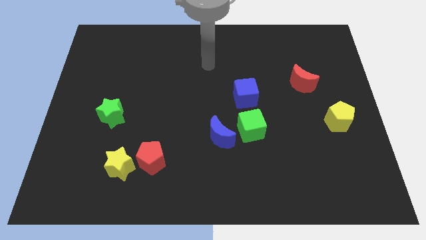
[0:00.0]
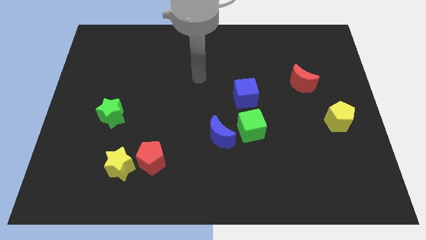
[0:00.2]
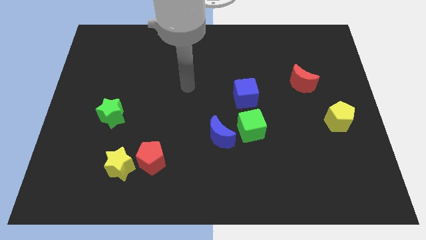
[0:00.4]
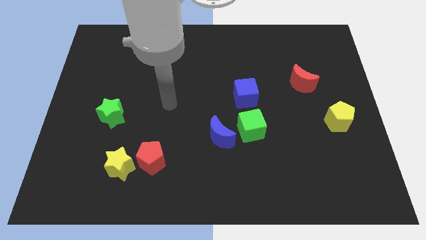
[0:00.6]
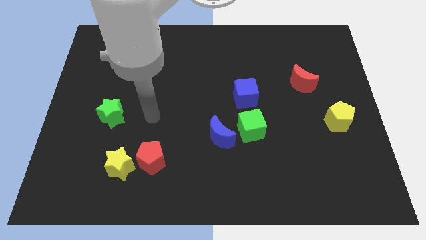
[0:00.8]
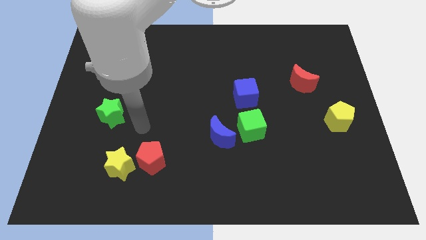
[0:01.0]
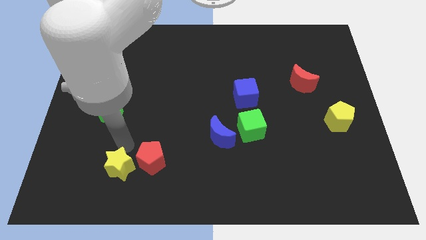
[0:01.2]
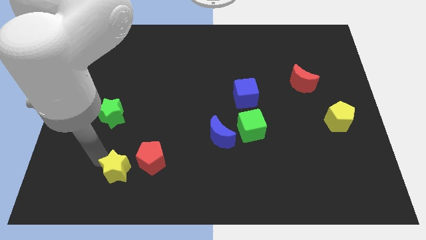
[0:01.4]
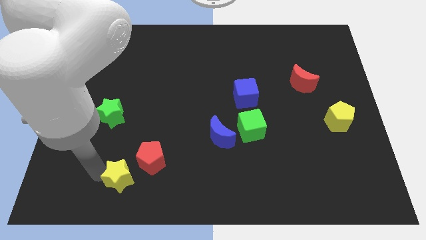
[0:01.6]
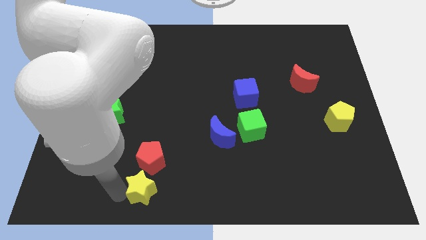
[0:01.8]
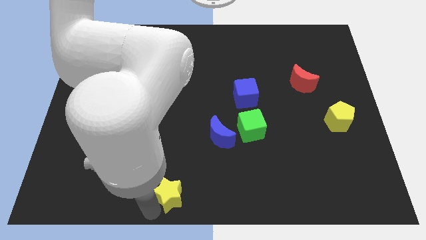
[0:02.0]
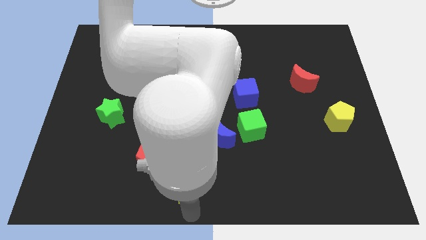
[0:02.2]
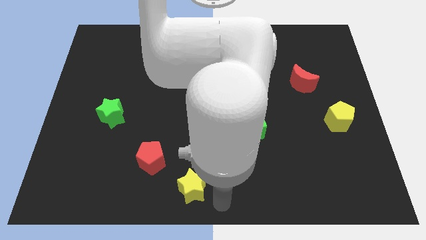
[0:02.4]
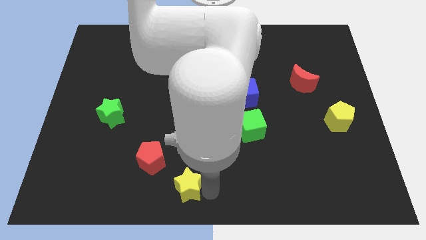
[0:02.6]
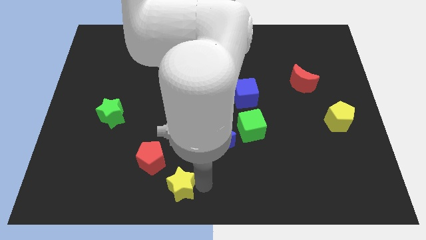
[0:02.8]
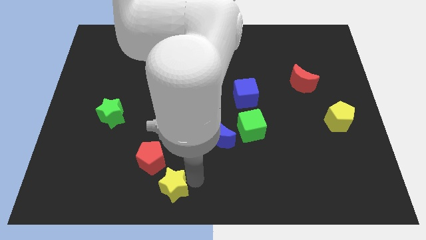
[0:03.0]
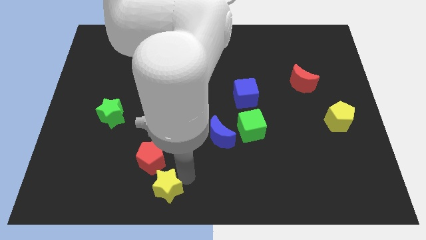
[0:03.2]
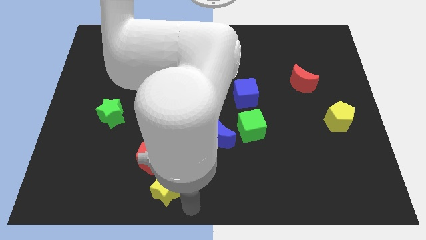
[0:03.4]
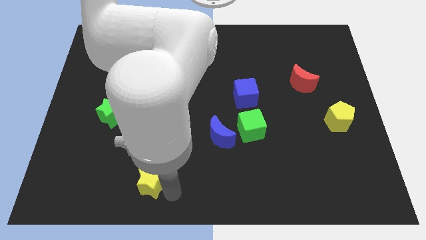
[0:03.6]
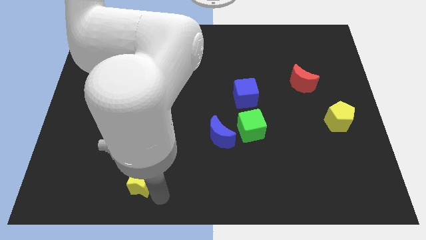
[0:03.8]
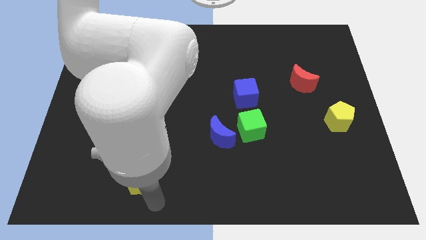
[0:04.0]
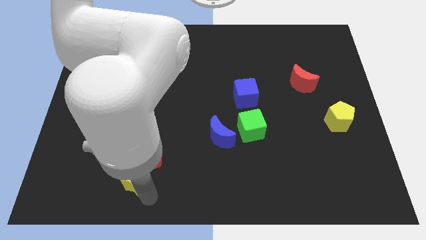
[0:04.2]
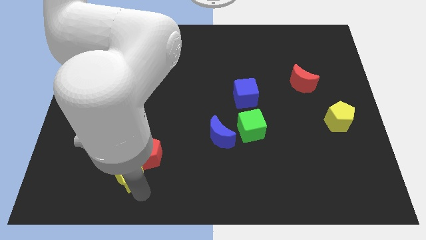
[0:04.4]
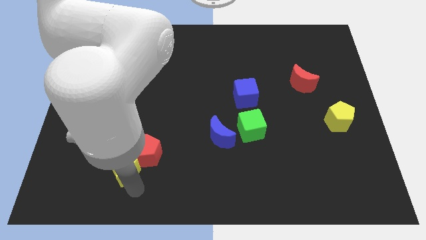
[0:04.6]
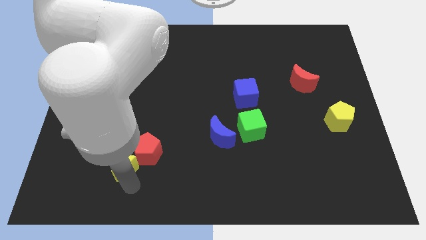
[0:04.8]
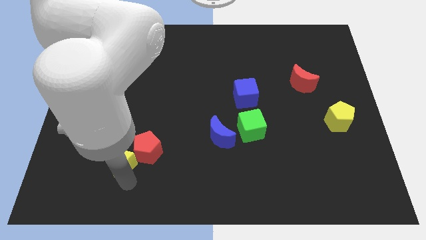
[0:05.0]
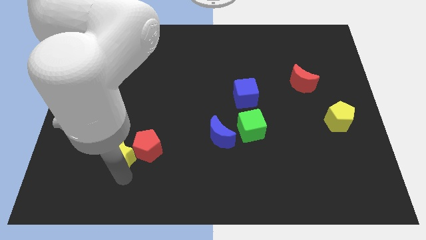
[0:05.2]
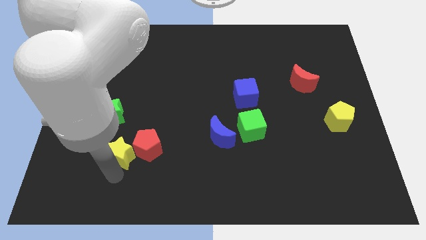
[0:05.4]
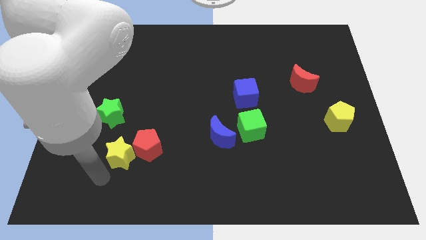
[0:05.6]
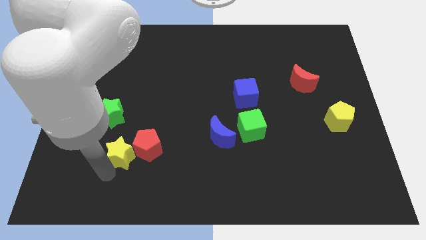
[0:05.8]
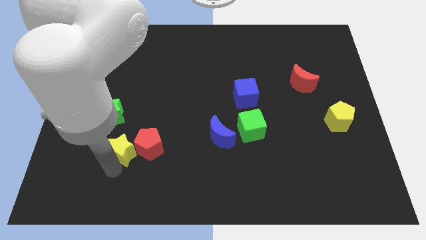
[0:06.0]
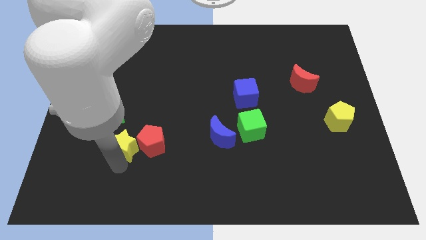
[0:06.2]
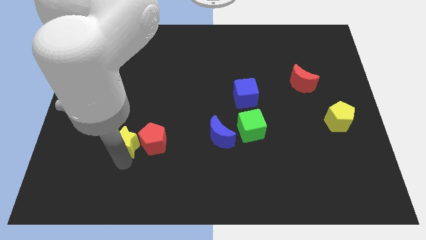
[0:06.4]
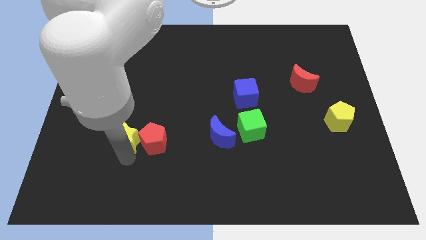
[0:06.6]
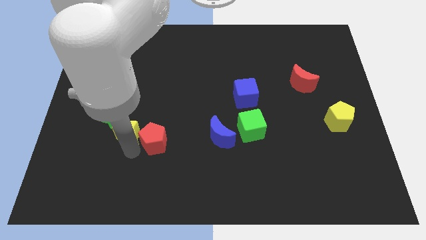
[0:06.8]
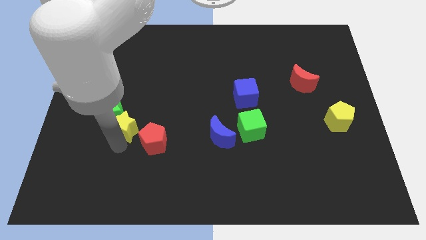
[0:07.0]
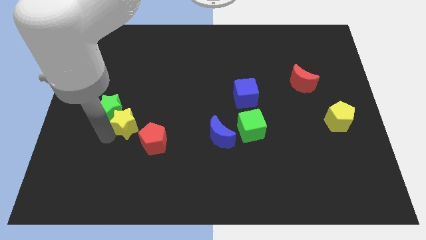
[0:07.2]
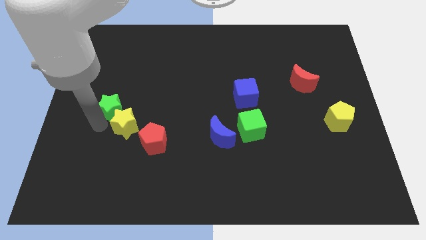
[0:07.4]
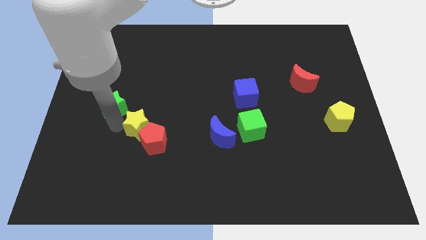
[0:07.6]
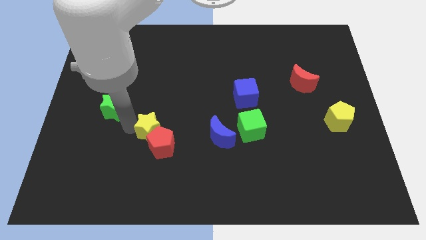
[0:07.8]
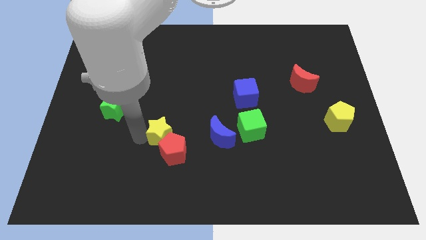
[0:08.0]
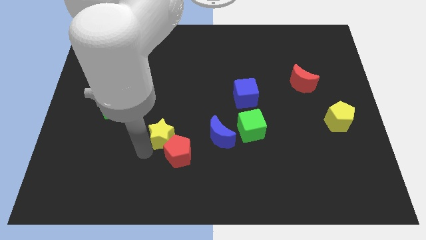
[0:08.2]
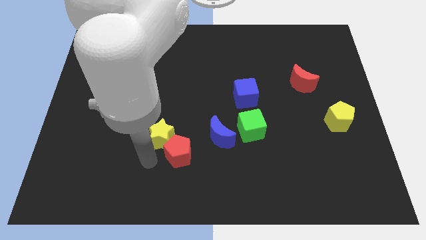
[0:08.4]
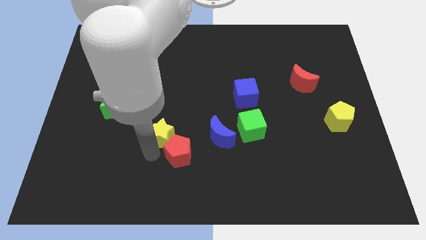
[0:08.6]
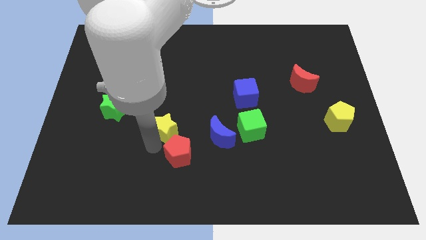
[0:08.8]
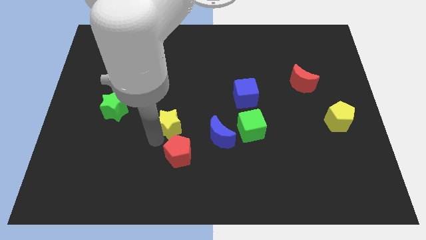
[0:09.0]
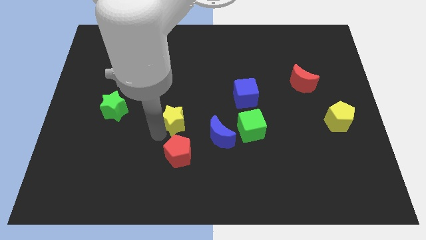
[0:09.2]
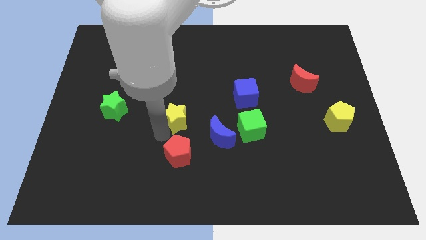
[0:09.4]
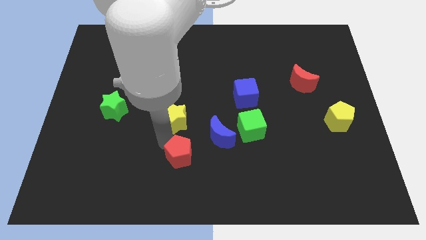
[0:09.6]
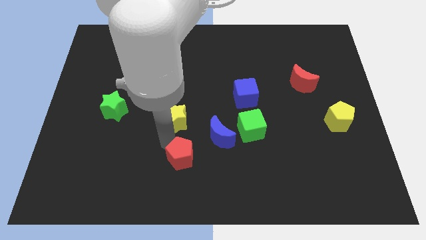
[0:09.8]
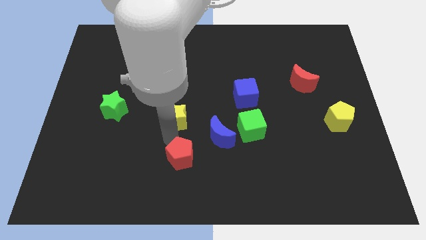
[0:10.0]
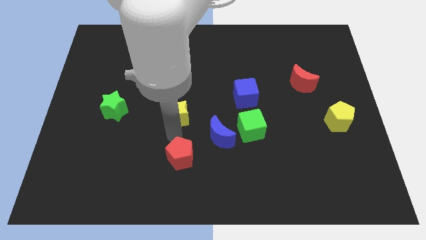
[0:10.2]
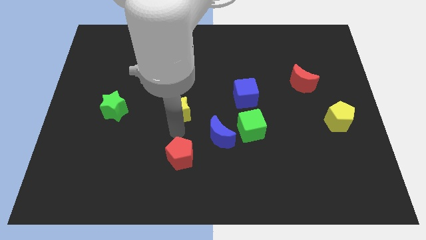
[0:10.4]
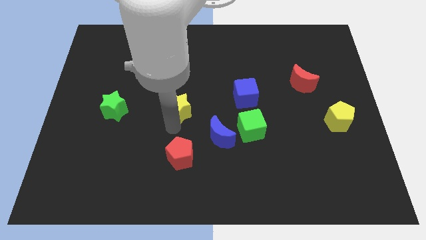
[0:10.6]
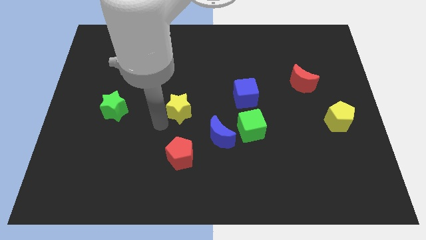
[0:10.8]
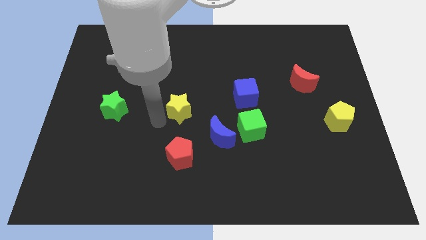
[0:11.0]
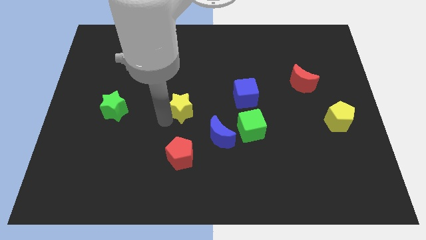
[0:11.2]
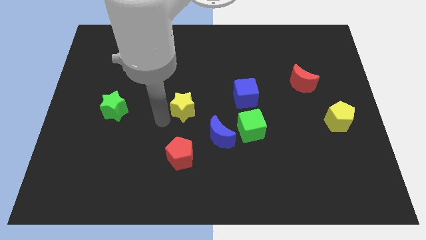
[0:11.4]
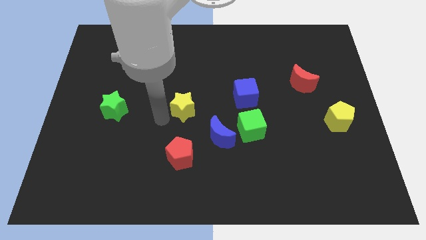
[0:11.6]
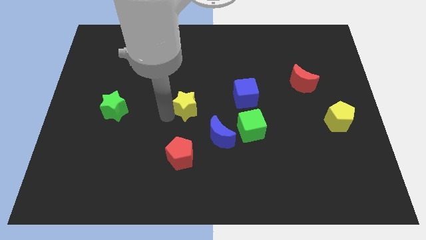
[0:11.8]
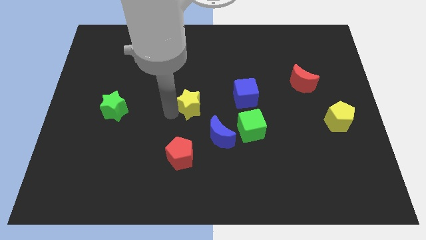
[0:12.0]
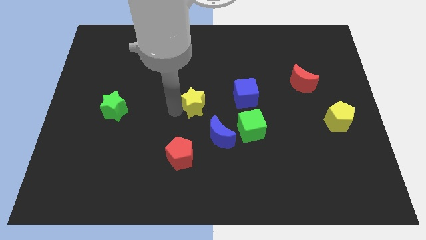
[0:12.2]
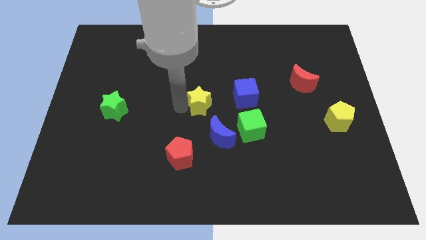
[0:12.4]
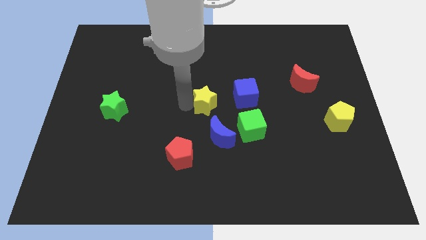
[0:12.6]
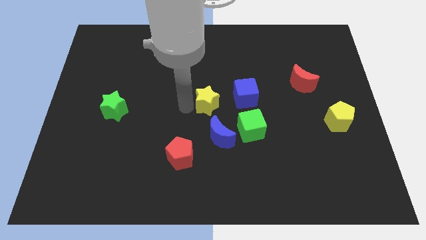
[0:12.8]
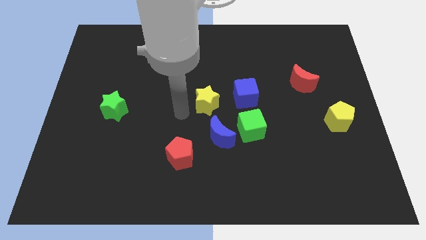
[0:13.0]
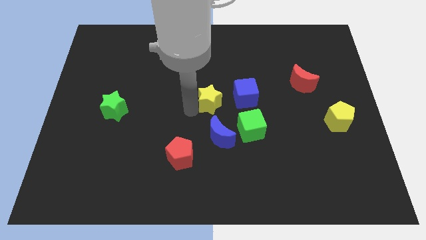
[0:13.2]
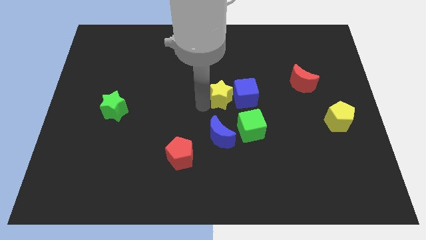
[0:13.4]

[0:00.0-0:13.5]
push the yellow star next to the blue cube
